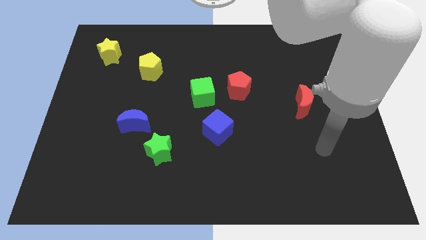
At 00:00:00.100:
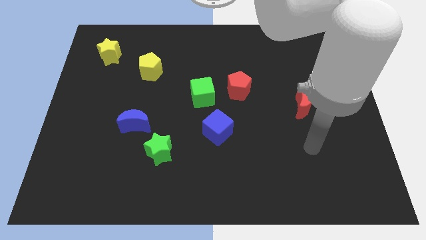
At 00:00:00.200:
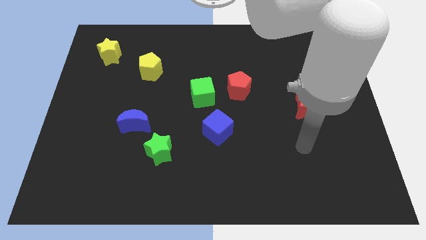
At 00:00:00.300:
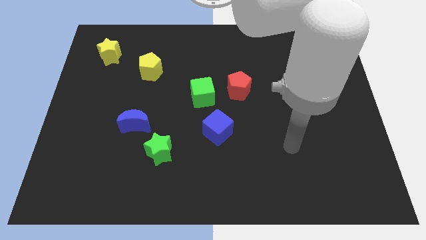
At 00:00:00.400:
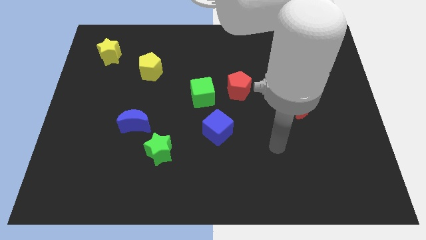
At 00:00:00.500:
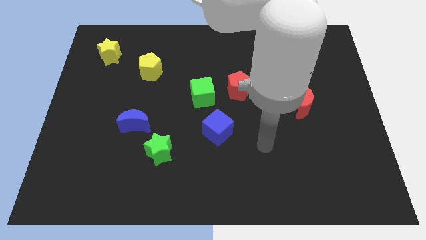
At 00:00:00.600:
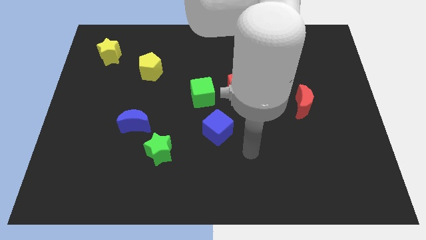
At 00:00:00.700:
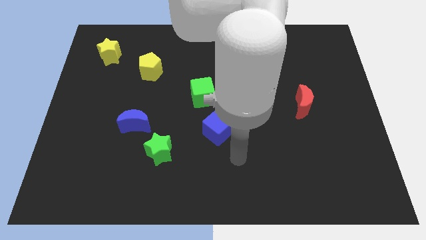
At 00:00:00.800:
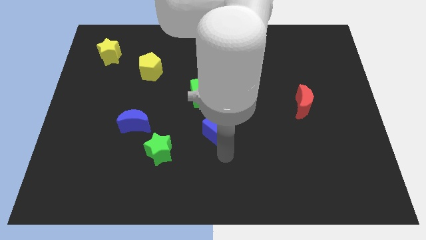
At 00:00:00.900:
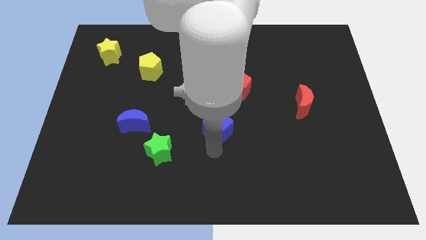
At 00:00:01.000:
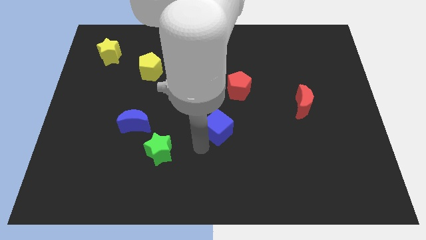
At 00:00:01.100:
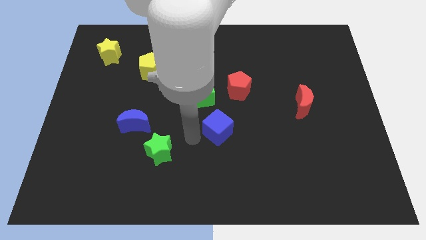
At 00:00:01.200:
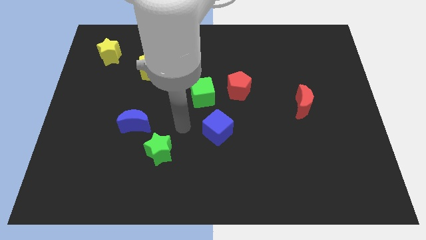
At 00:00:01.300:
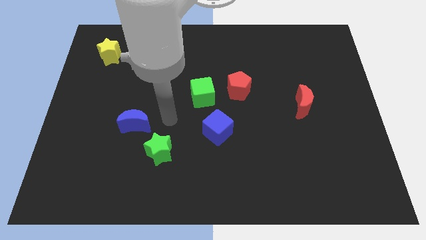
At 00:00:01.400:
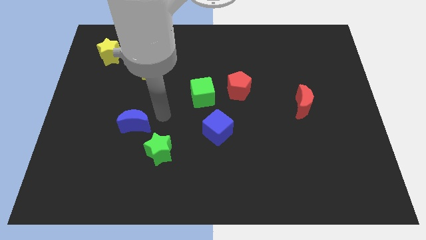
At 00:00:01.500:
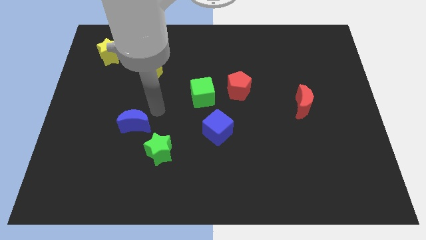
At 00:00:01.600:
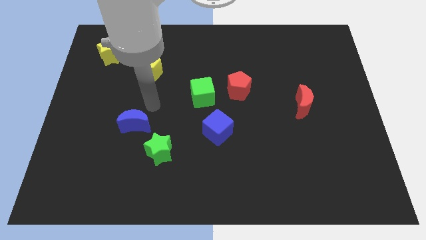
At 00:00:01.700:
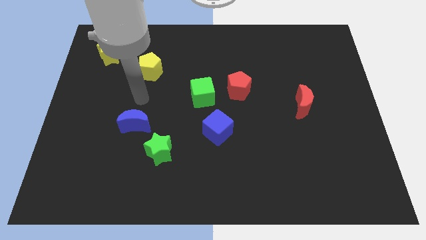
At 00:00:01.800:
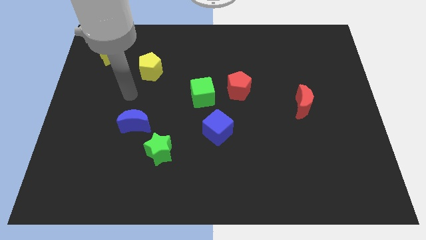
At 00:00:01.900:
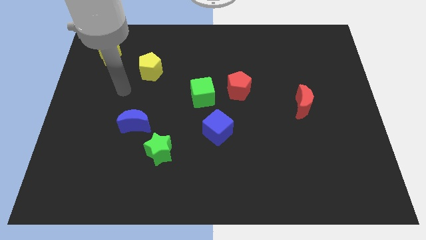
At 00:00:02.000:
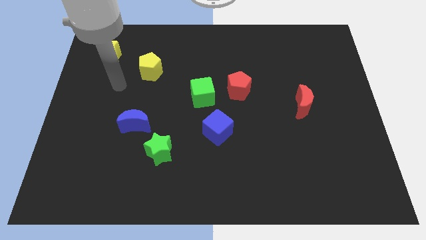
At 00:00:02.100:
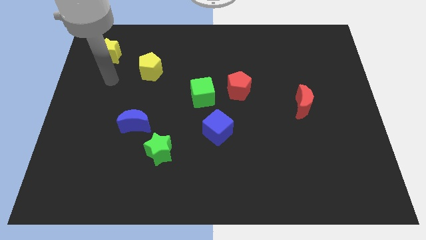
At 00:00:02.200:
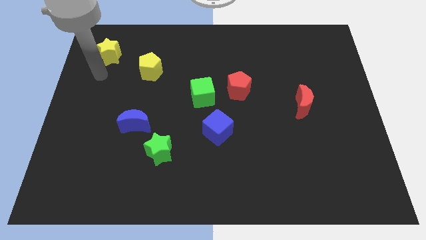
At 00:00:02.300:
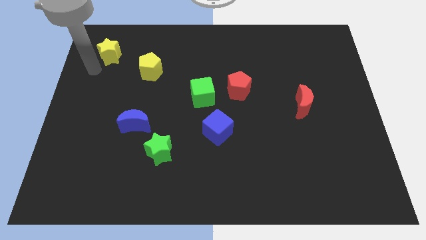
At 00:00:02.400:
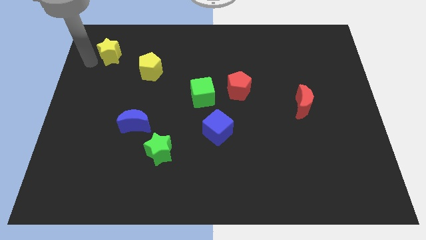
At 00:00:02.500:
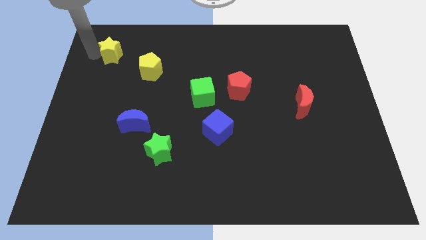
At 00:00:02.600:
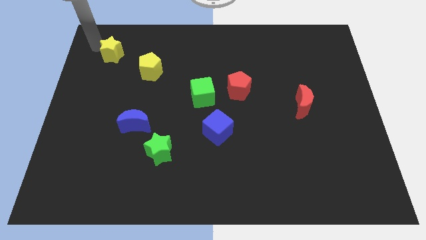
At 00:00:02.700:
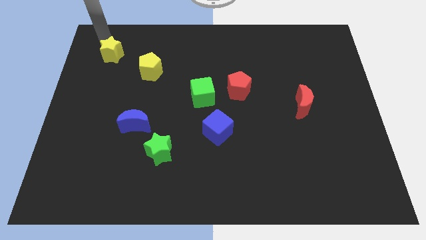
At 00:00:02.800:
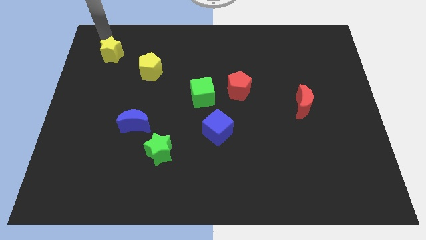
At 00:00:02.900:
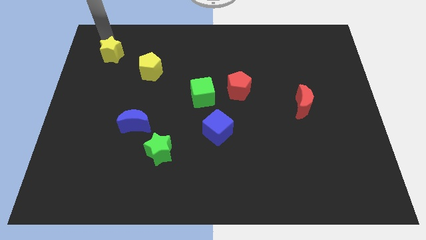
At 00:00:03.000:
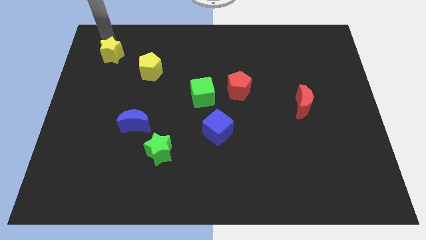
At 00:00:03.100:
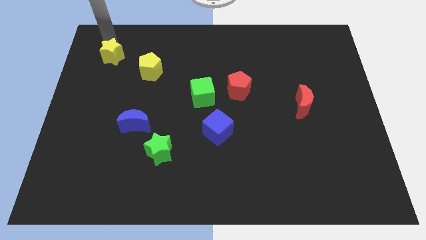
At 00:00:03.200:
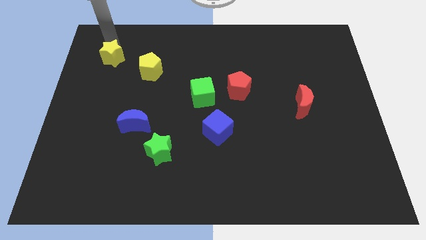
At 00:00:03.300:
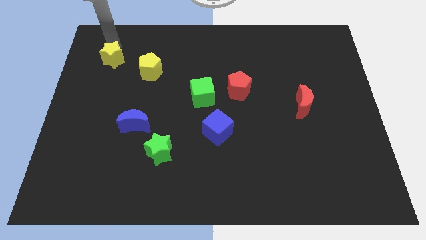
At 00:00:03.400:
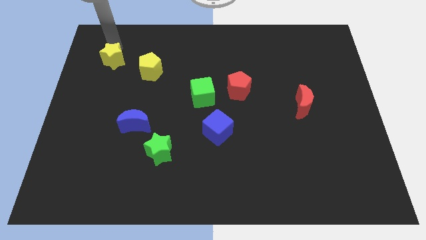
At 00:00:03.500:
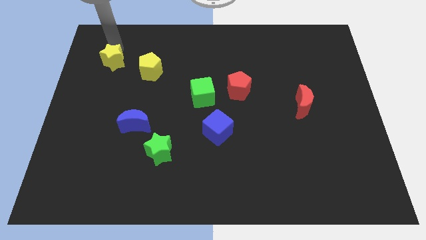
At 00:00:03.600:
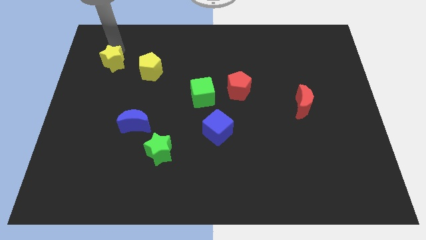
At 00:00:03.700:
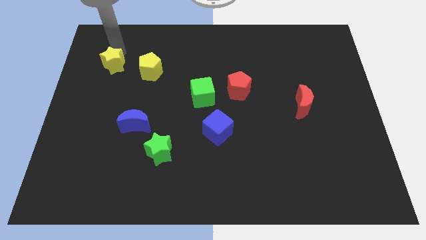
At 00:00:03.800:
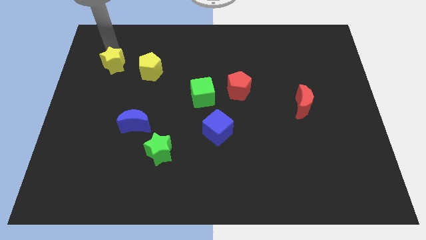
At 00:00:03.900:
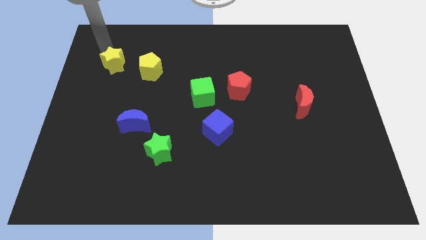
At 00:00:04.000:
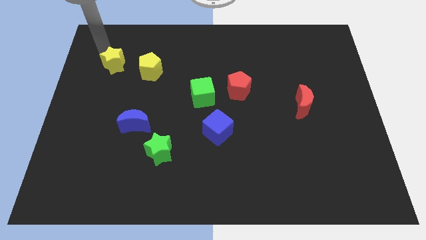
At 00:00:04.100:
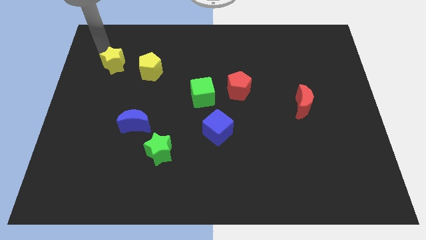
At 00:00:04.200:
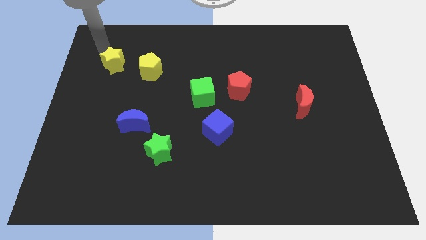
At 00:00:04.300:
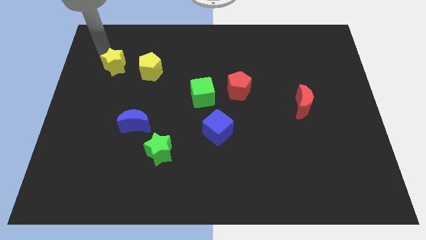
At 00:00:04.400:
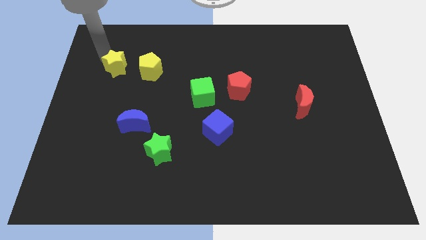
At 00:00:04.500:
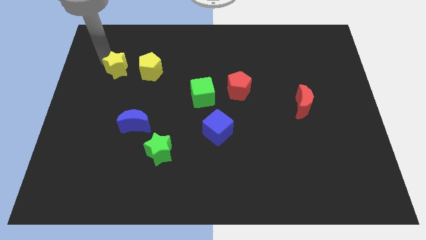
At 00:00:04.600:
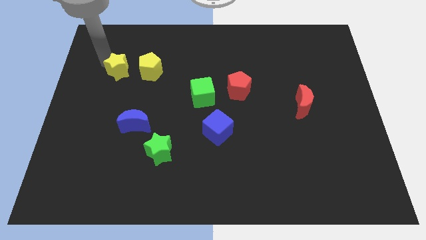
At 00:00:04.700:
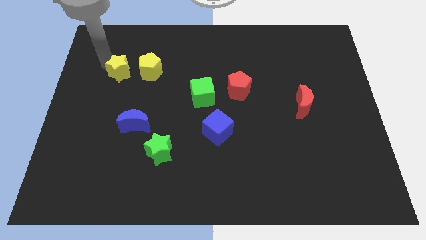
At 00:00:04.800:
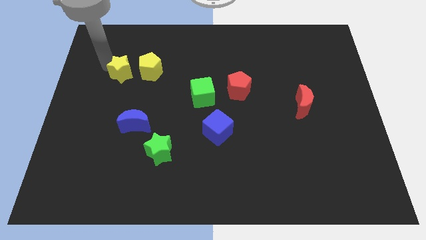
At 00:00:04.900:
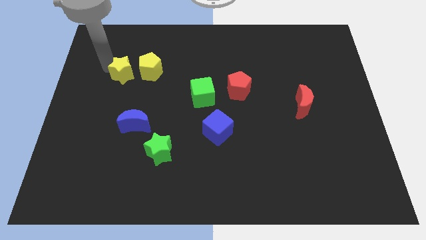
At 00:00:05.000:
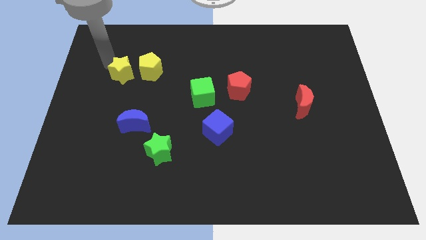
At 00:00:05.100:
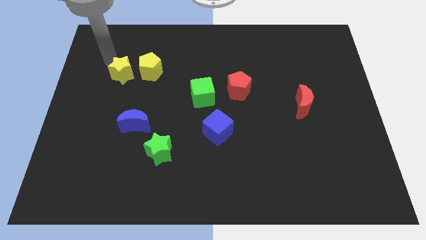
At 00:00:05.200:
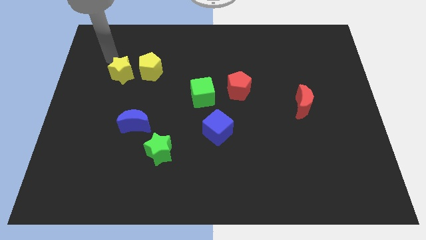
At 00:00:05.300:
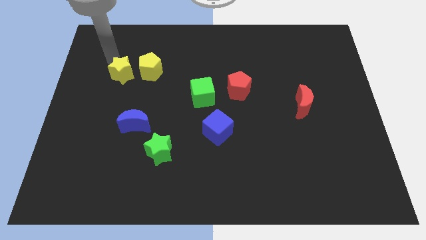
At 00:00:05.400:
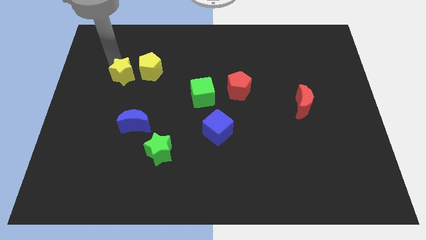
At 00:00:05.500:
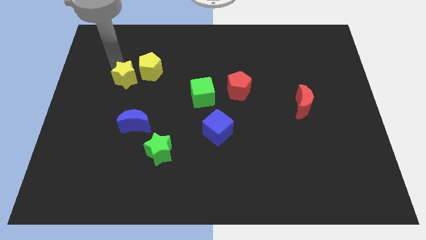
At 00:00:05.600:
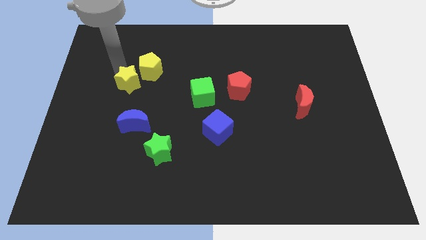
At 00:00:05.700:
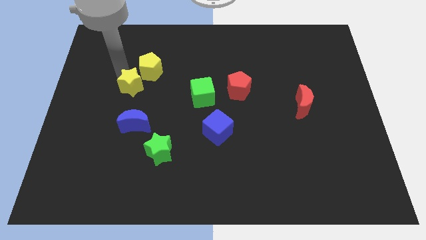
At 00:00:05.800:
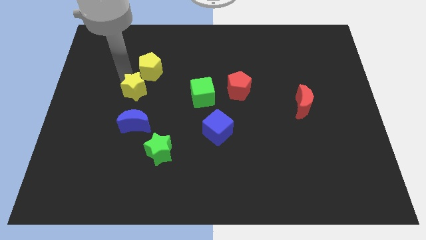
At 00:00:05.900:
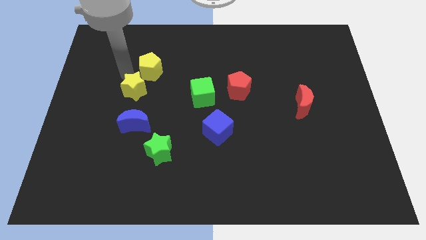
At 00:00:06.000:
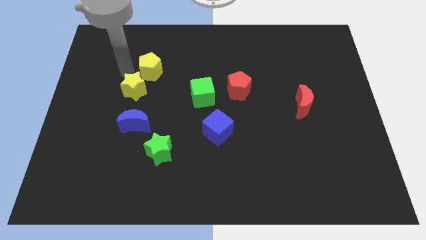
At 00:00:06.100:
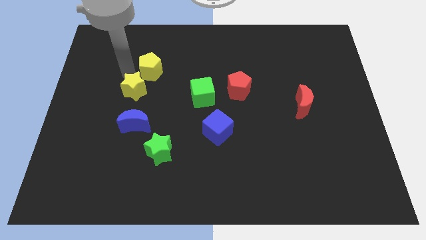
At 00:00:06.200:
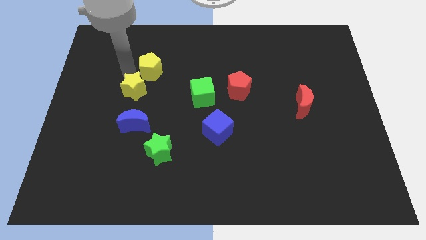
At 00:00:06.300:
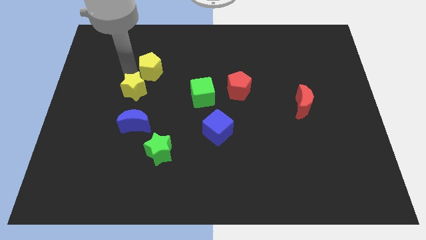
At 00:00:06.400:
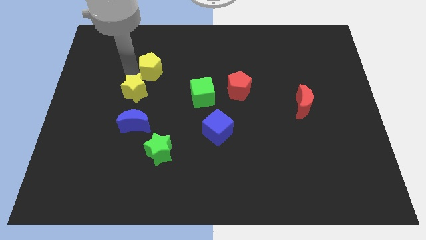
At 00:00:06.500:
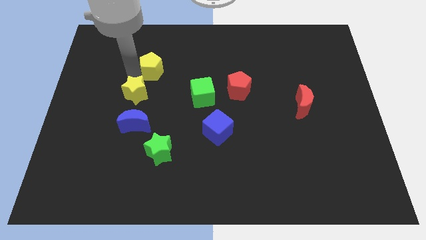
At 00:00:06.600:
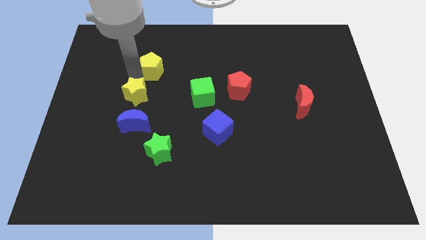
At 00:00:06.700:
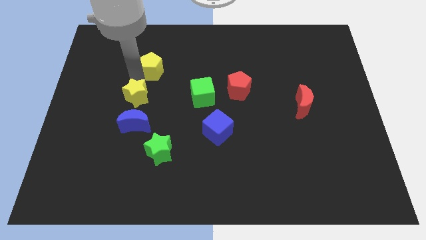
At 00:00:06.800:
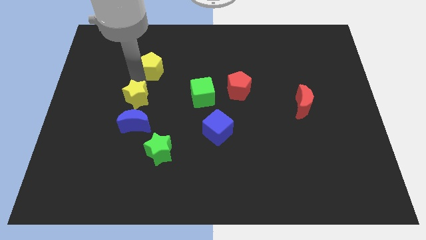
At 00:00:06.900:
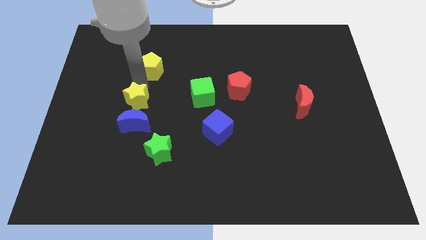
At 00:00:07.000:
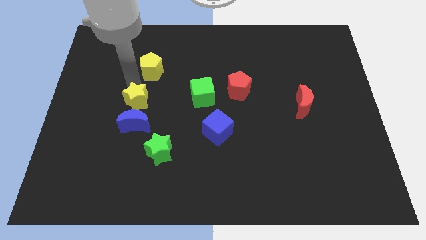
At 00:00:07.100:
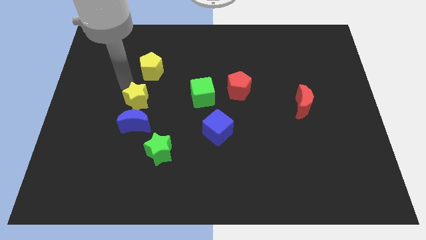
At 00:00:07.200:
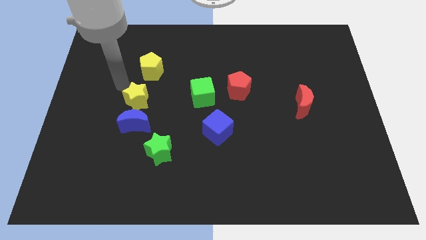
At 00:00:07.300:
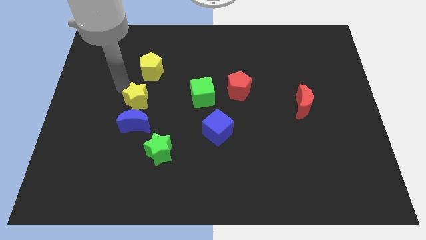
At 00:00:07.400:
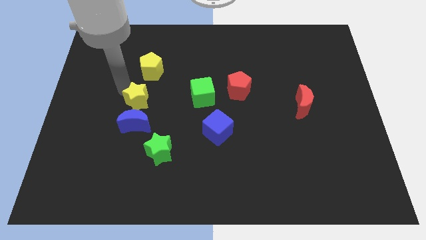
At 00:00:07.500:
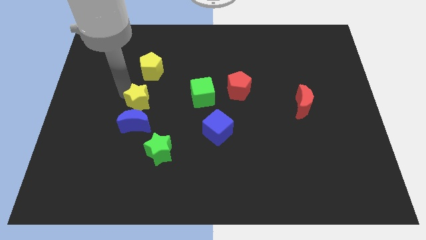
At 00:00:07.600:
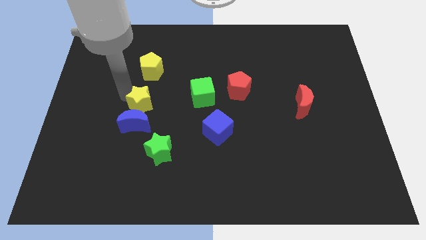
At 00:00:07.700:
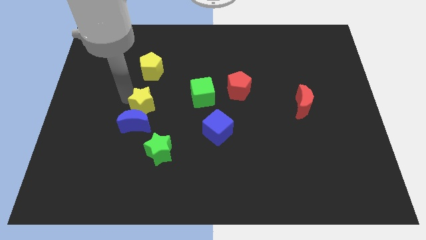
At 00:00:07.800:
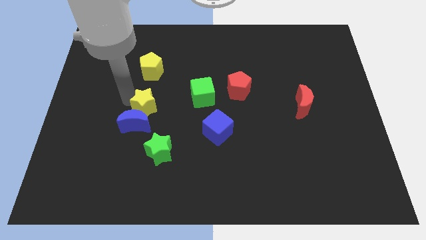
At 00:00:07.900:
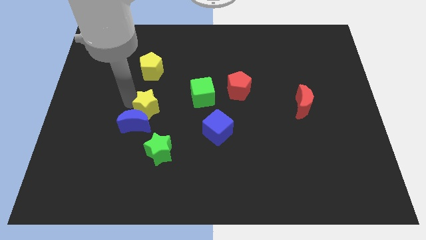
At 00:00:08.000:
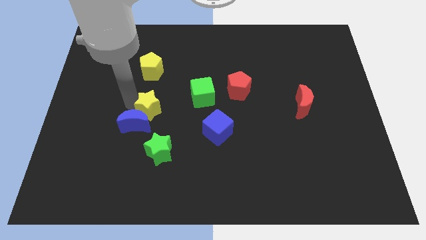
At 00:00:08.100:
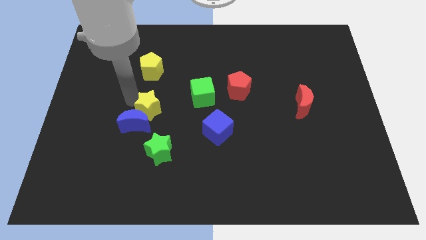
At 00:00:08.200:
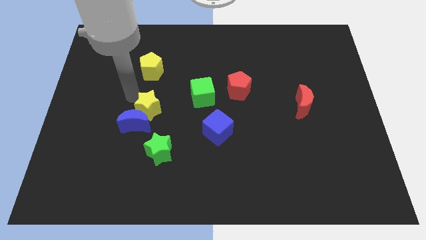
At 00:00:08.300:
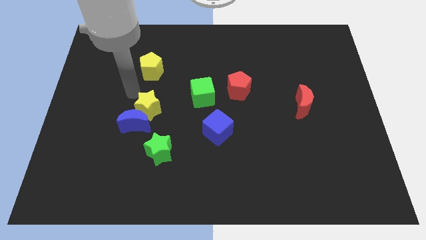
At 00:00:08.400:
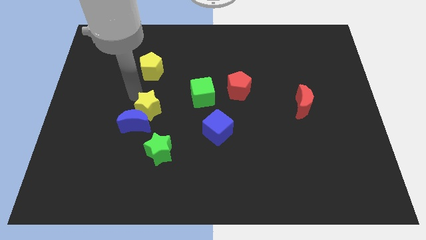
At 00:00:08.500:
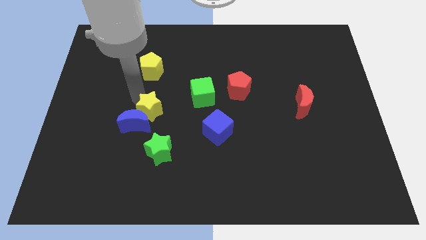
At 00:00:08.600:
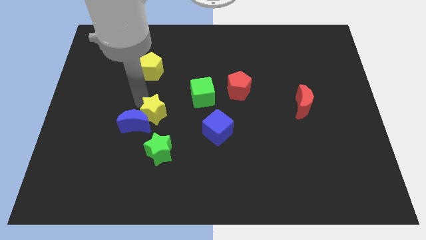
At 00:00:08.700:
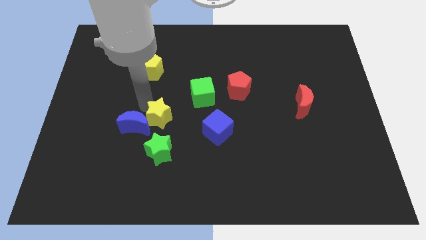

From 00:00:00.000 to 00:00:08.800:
slide the yellow star to the left of the blue cube
